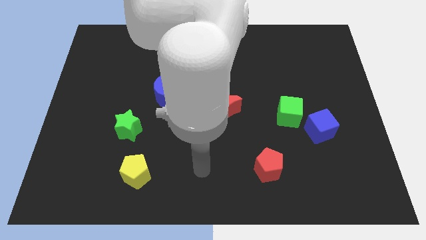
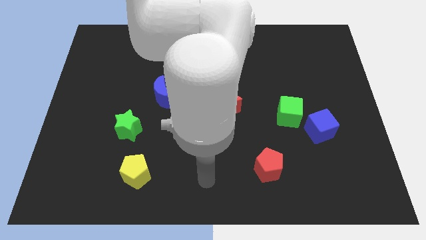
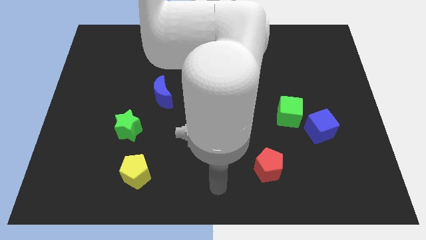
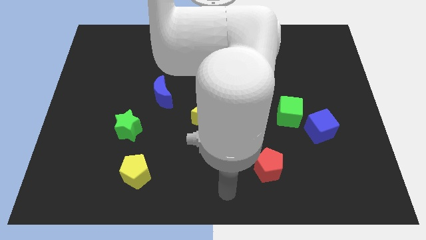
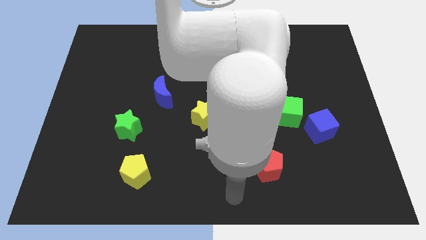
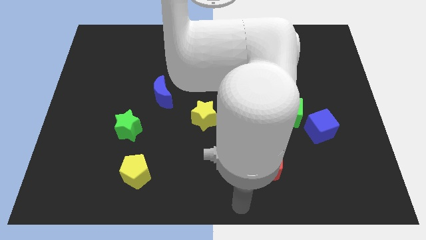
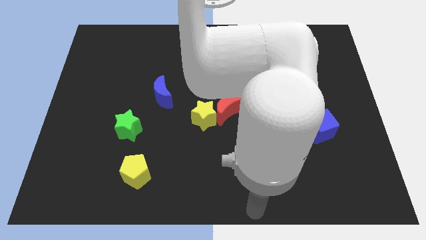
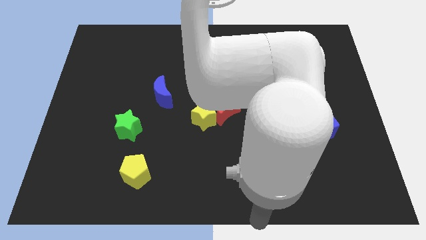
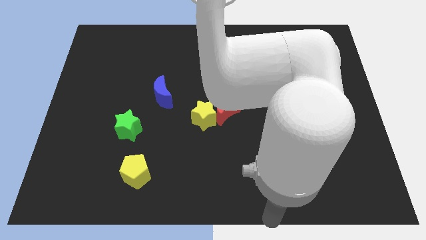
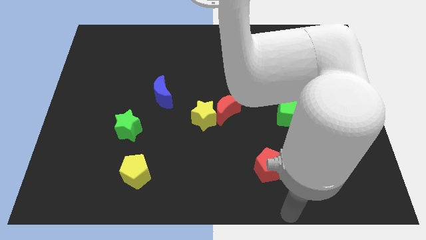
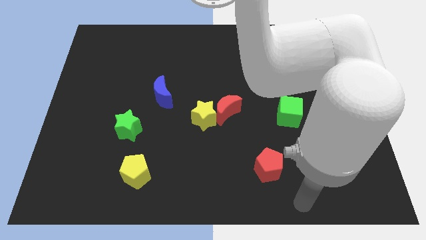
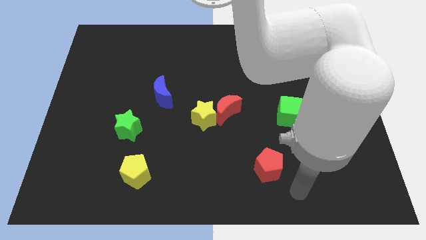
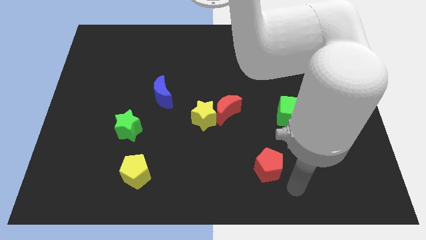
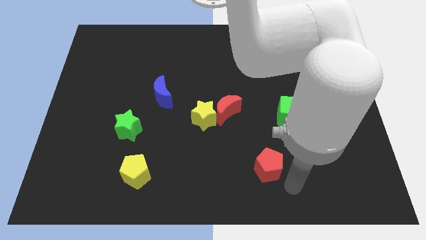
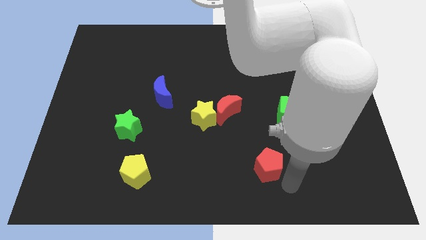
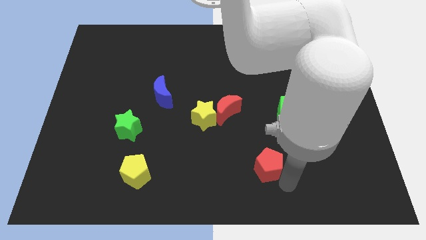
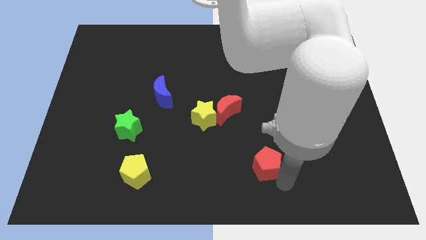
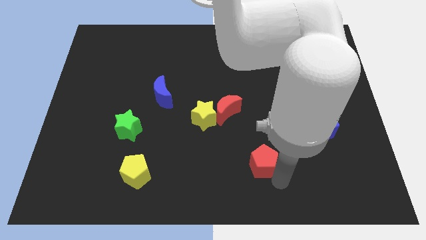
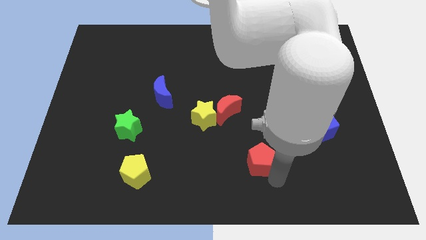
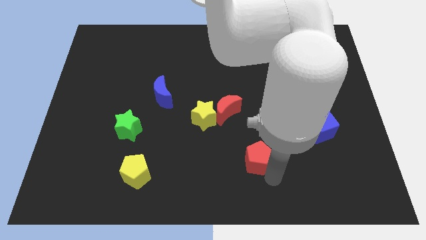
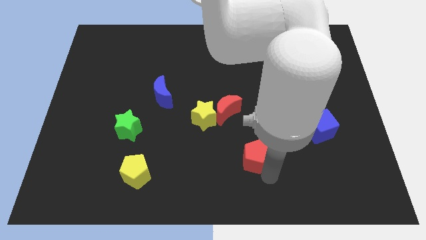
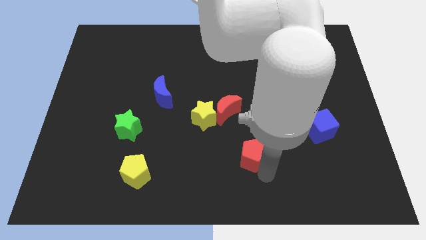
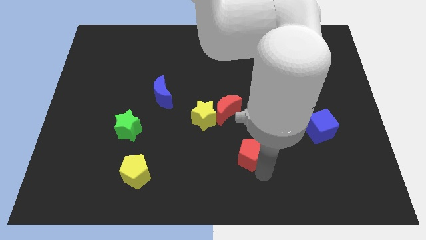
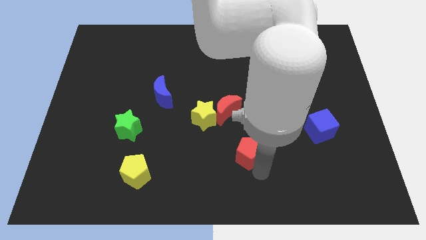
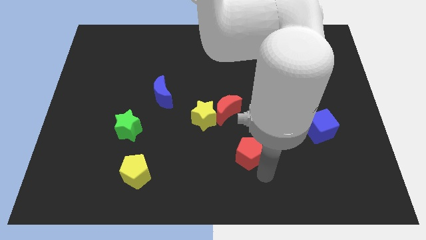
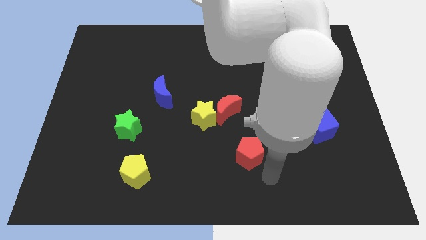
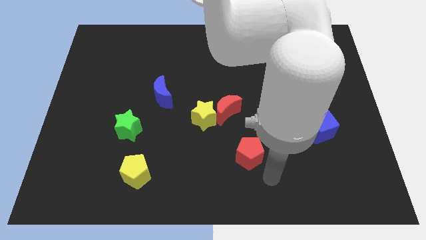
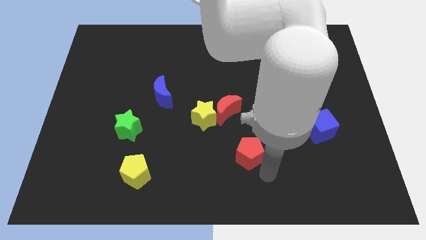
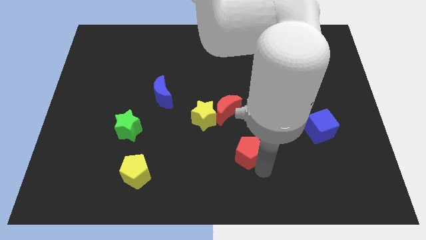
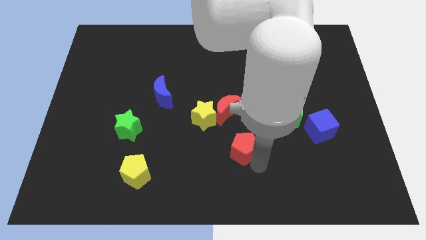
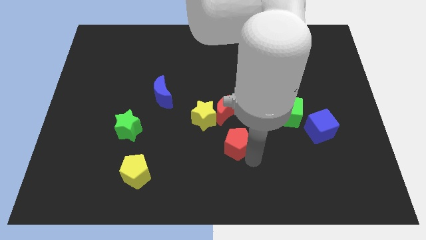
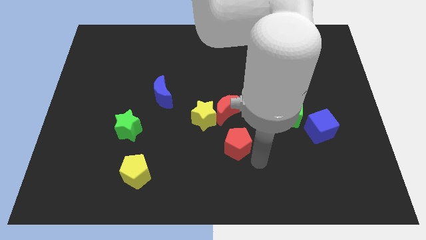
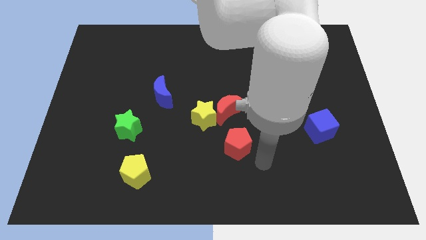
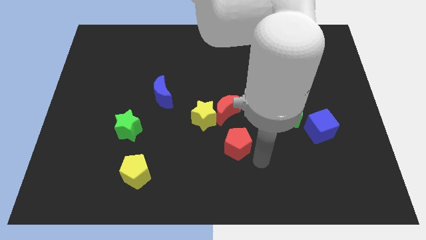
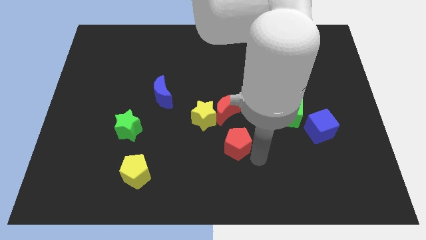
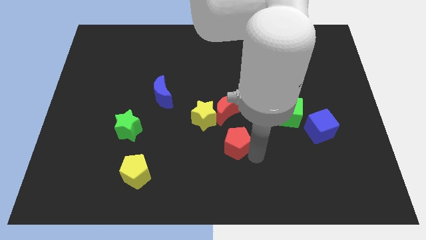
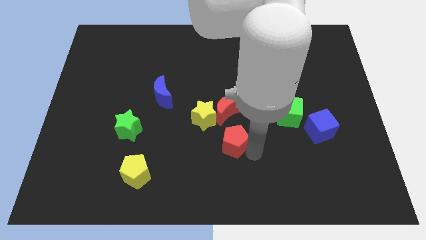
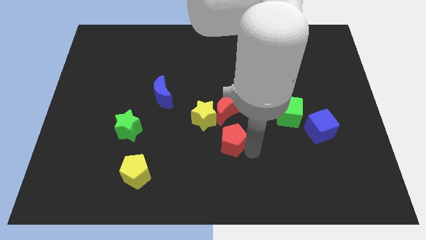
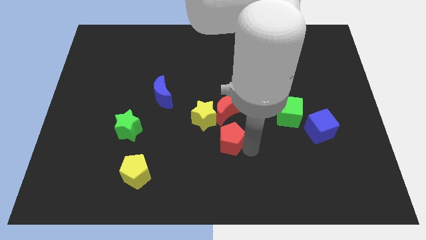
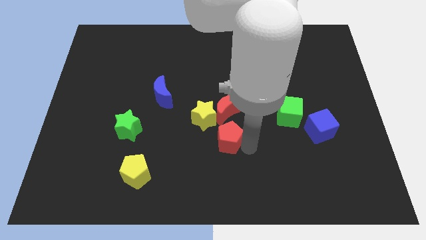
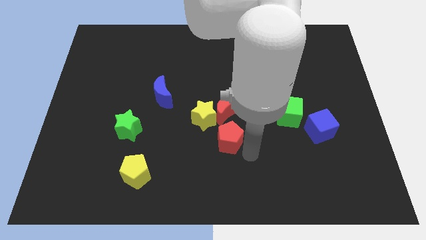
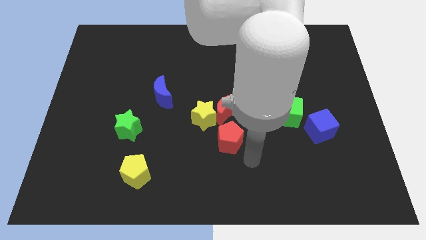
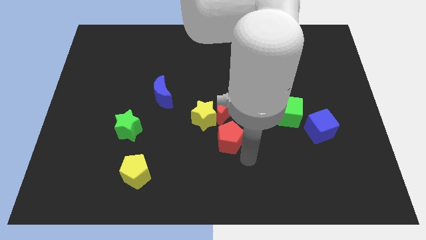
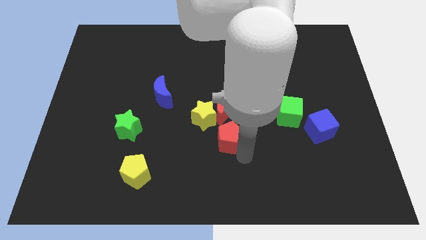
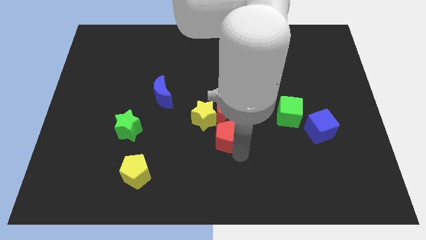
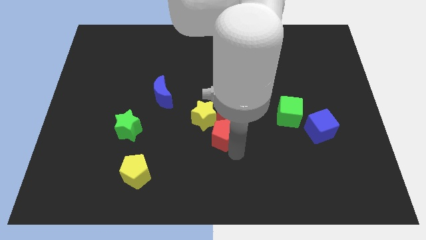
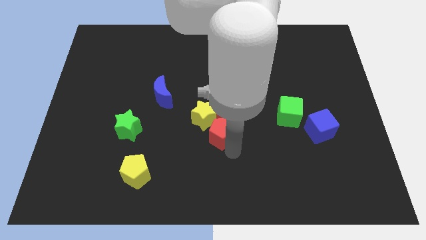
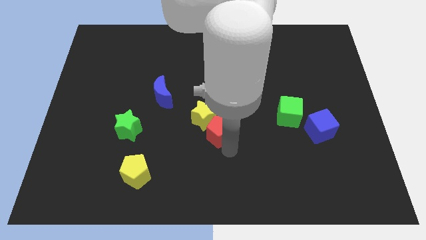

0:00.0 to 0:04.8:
push the red pentagon close to the yellow star

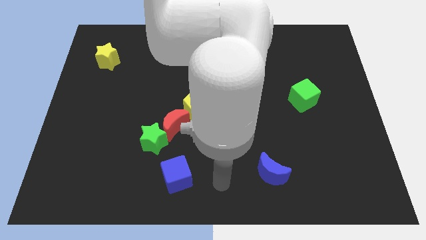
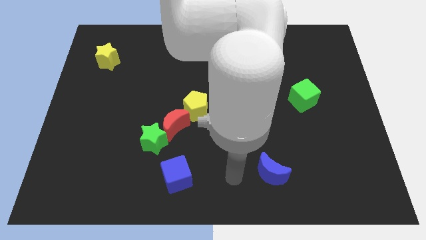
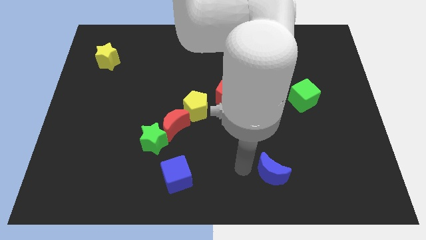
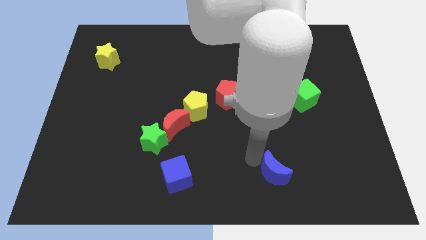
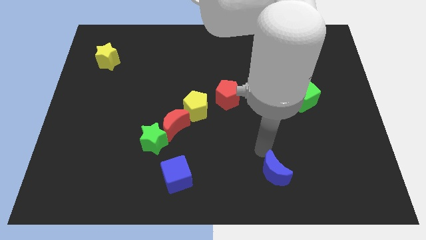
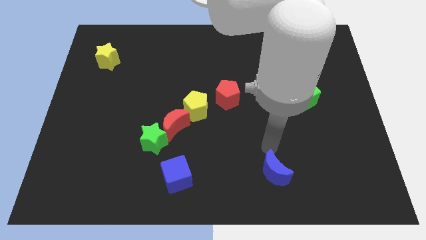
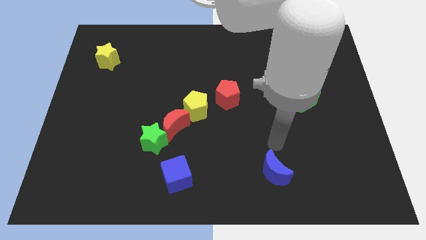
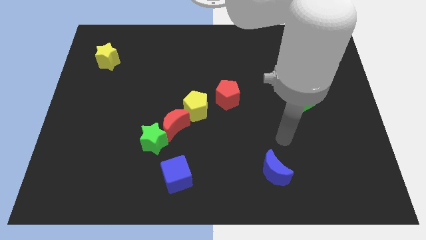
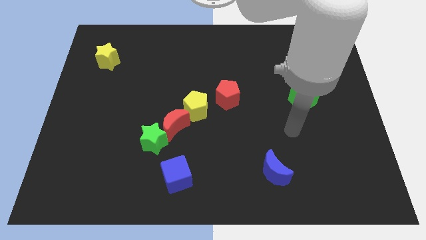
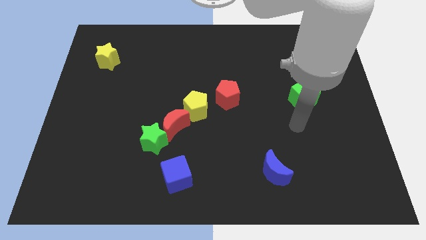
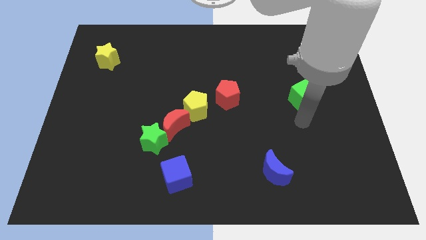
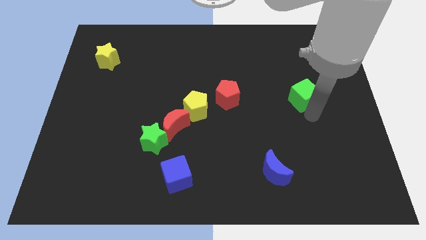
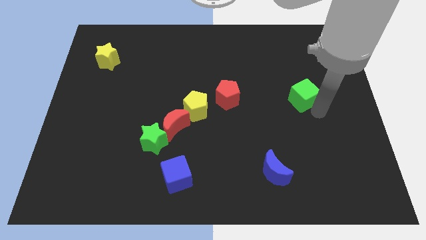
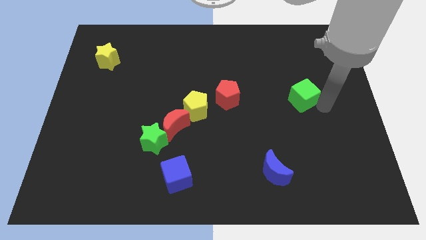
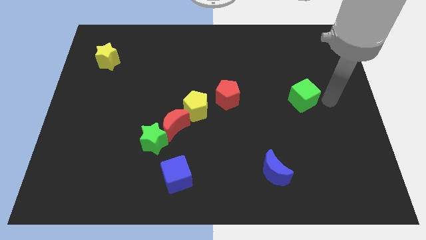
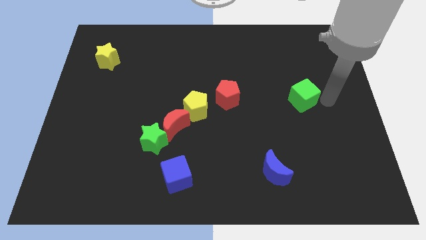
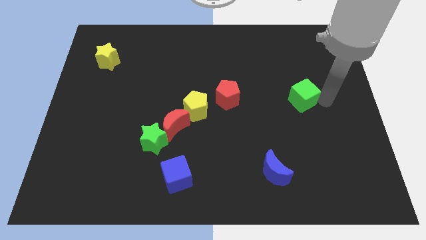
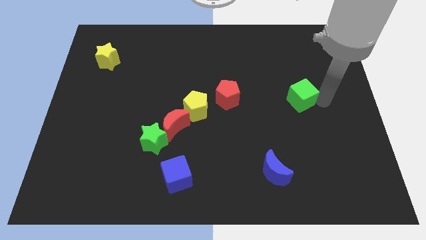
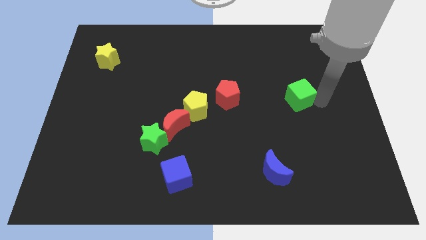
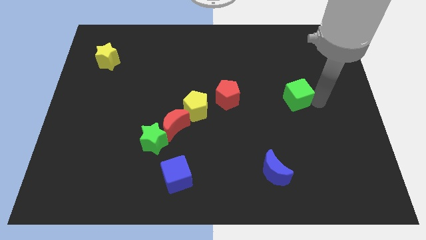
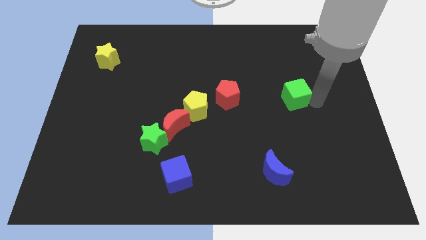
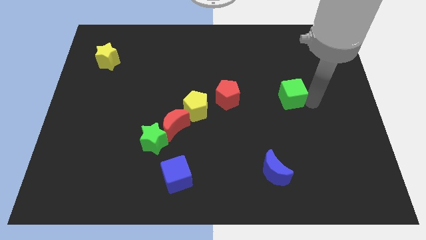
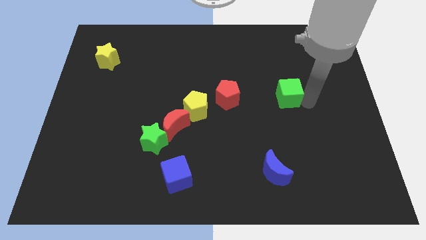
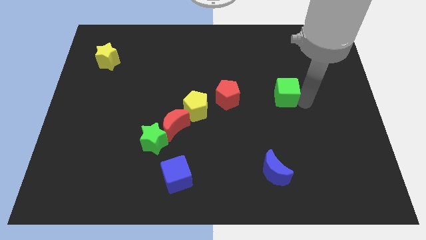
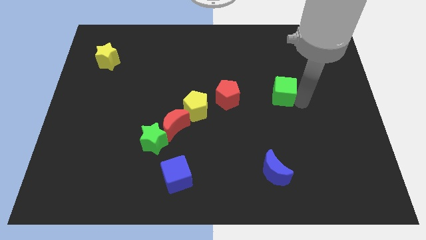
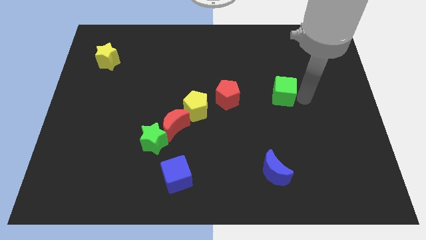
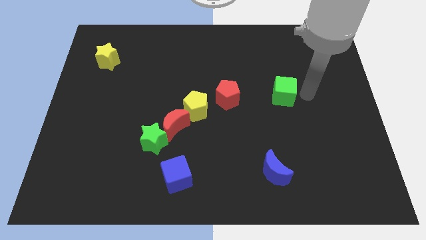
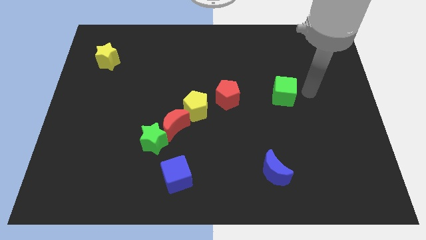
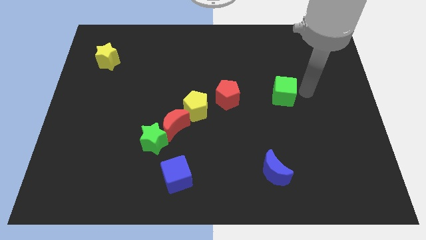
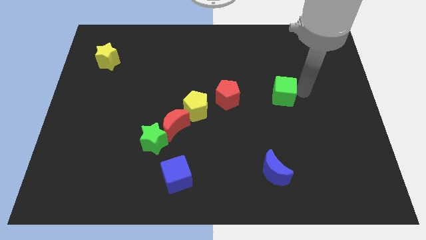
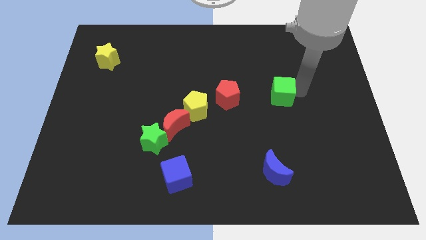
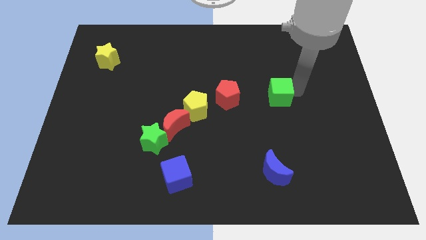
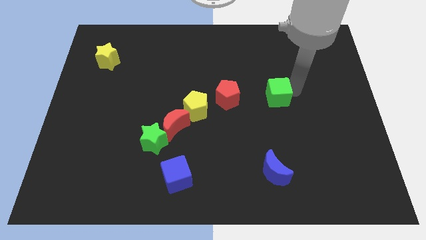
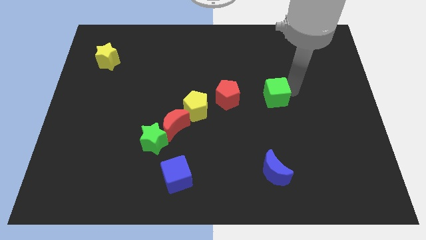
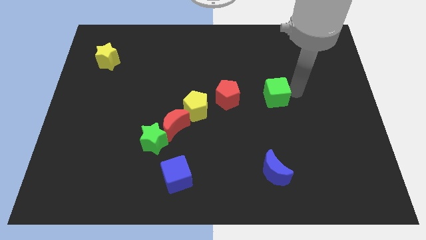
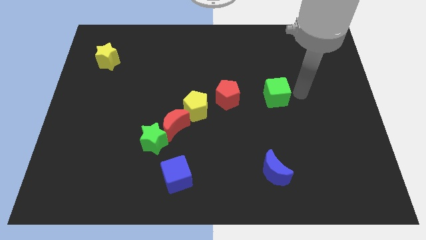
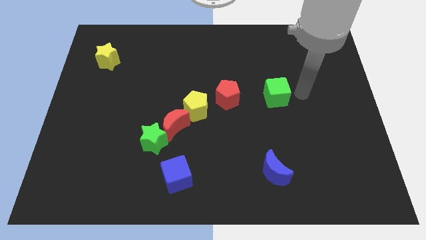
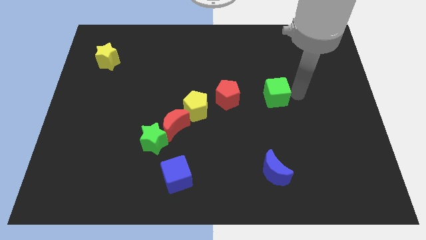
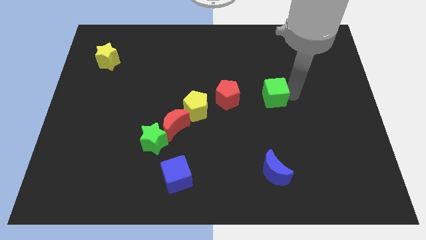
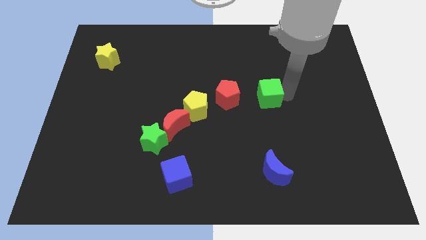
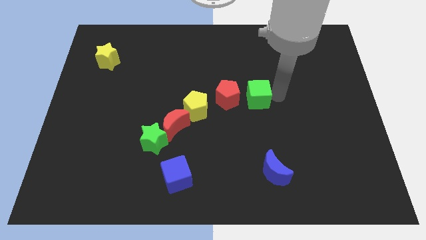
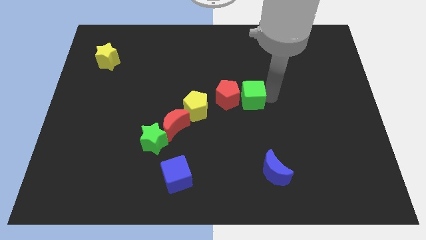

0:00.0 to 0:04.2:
move the green cube close to the red pentagon
